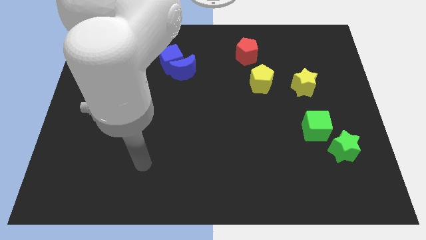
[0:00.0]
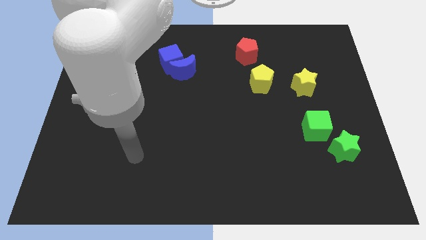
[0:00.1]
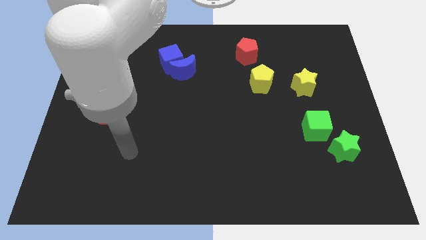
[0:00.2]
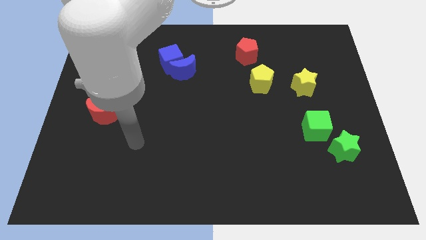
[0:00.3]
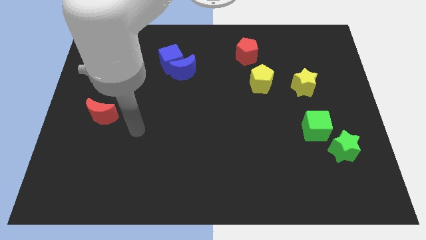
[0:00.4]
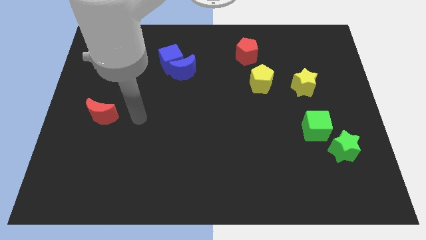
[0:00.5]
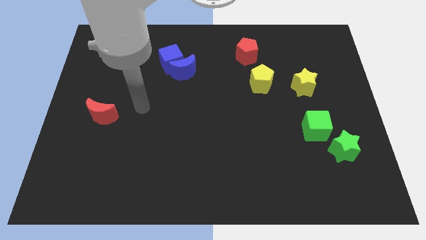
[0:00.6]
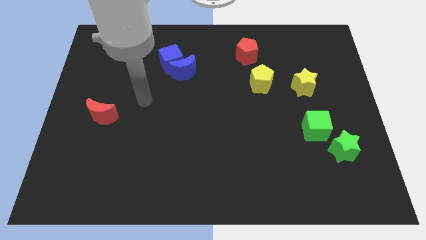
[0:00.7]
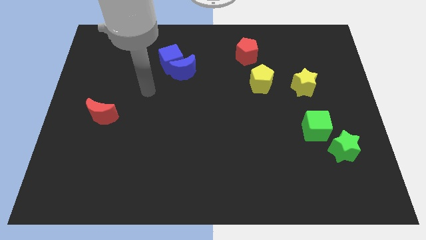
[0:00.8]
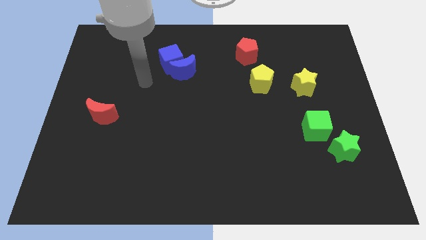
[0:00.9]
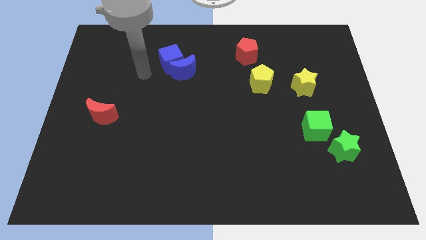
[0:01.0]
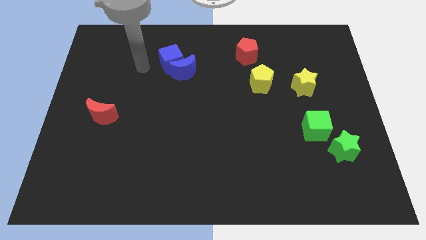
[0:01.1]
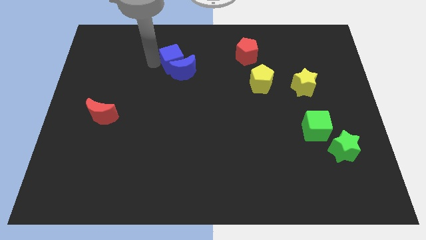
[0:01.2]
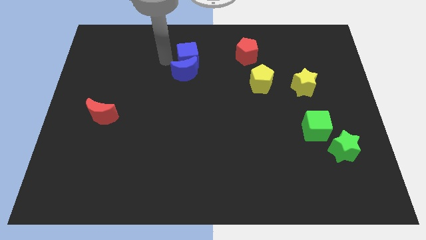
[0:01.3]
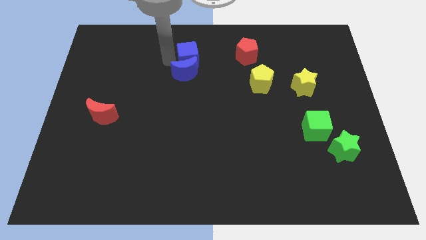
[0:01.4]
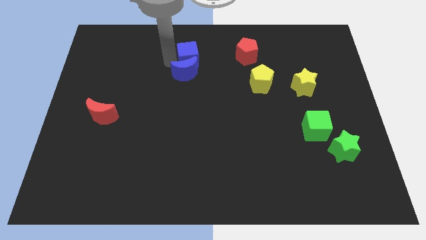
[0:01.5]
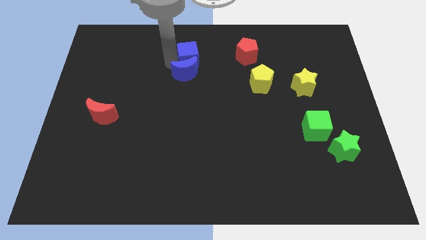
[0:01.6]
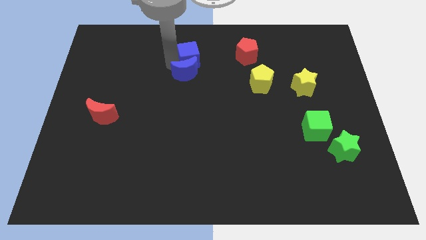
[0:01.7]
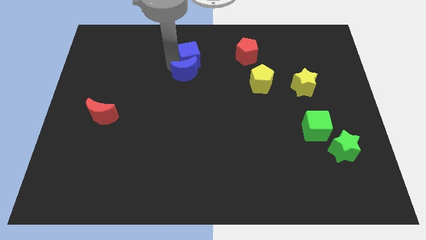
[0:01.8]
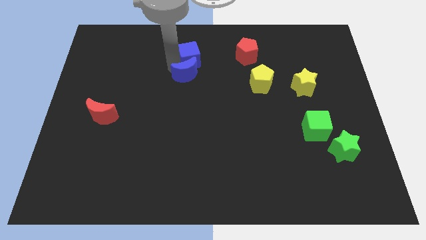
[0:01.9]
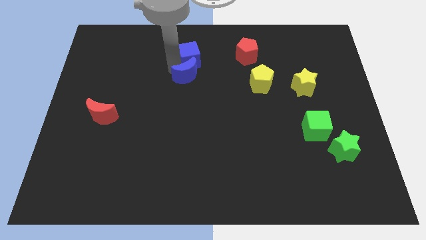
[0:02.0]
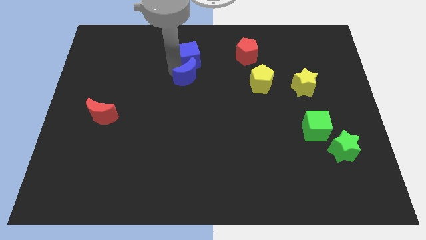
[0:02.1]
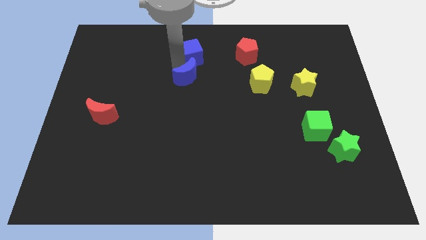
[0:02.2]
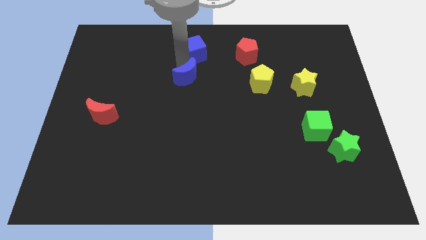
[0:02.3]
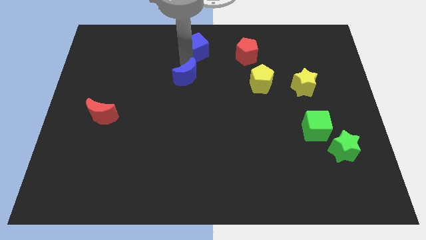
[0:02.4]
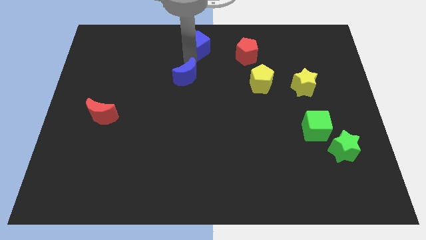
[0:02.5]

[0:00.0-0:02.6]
separate the blue moon from the blue cube

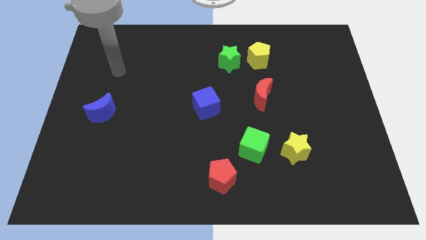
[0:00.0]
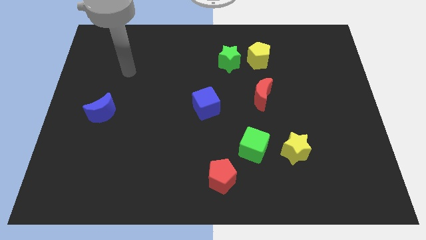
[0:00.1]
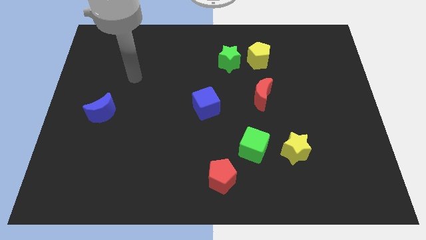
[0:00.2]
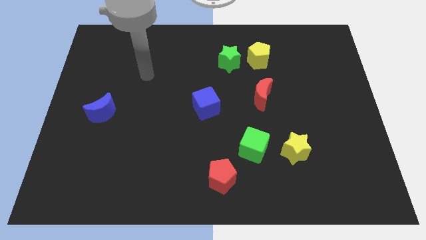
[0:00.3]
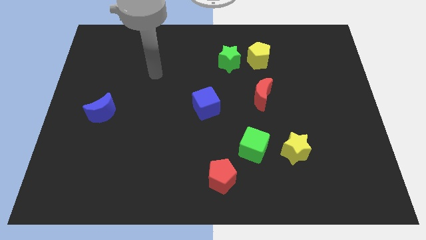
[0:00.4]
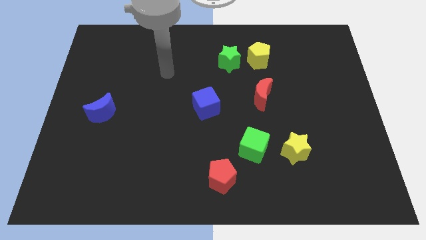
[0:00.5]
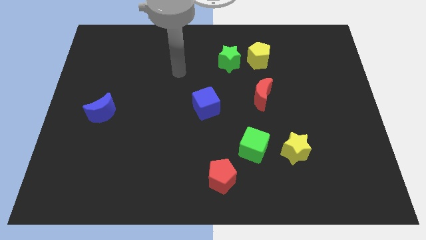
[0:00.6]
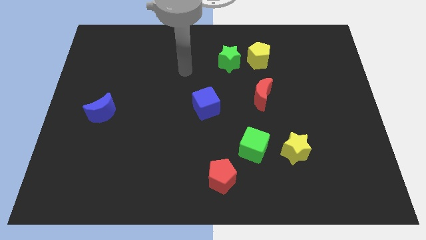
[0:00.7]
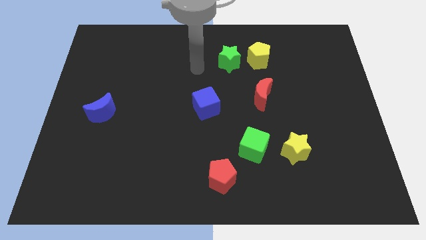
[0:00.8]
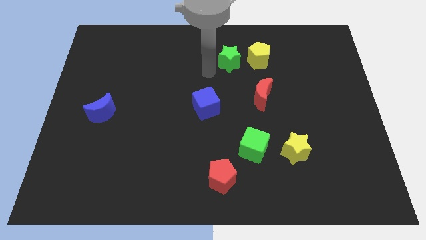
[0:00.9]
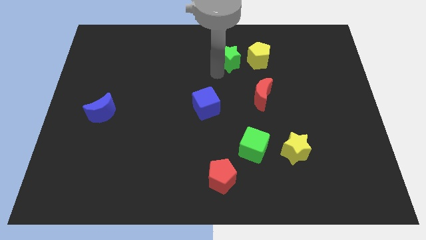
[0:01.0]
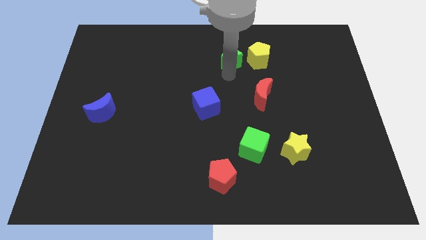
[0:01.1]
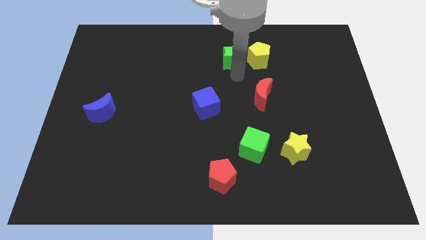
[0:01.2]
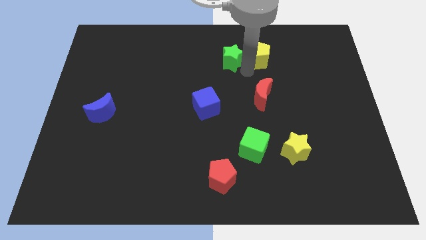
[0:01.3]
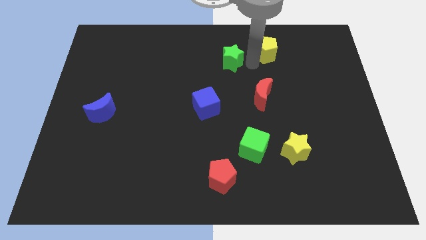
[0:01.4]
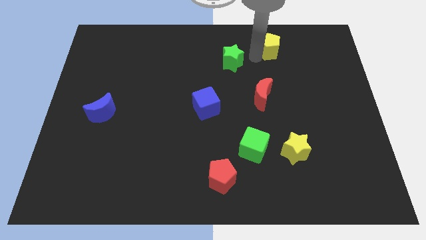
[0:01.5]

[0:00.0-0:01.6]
pull the green star apart from the yellow pentagon

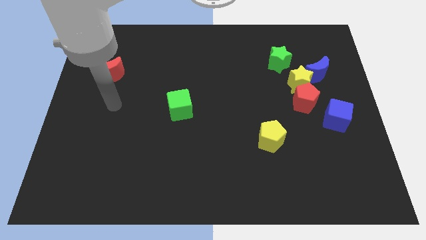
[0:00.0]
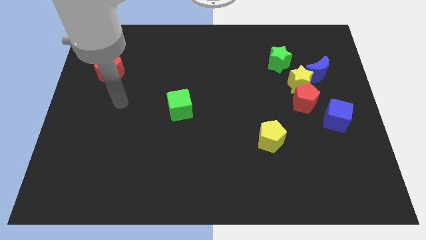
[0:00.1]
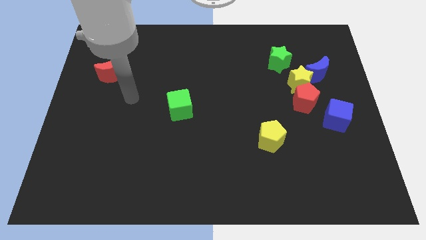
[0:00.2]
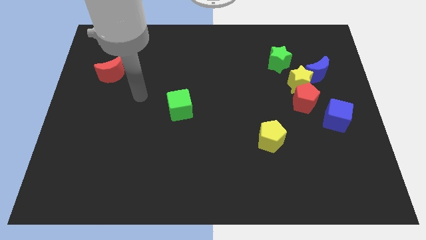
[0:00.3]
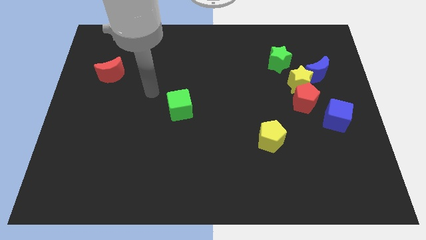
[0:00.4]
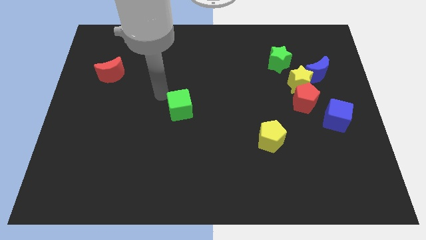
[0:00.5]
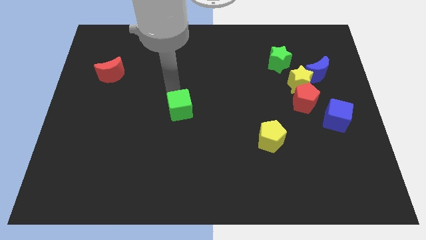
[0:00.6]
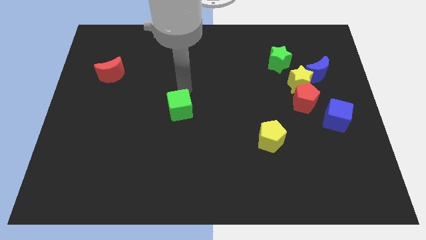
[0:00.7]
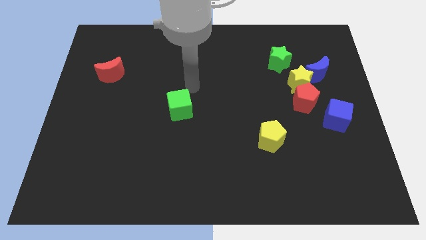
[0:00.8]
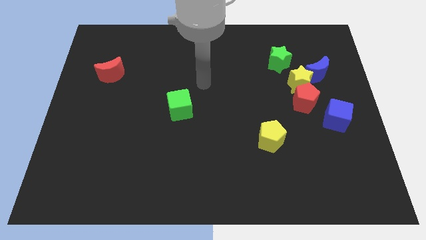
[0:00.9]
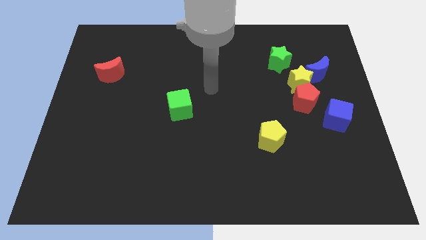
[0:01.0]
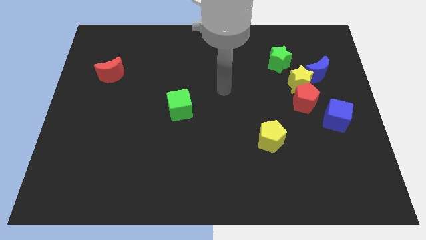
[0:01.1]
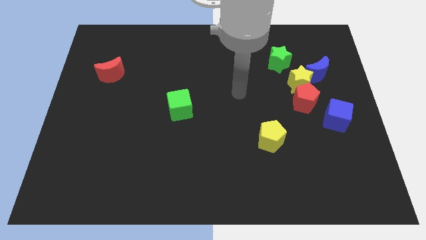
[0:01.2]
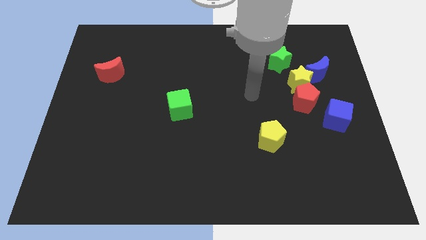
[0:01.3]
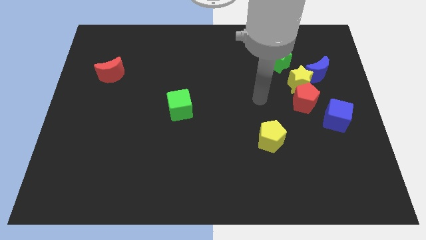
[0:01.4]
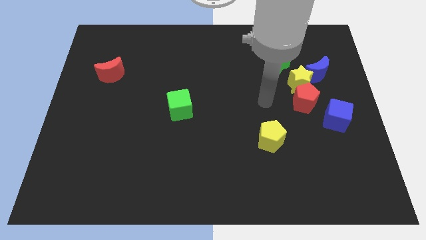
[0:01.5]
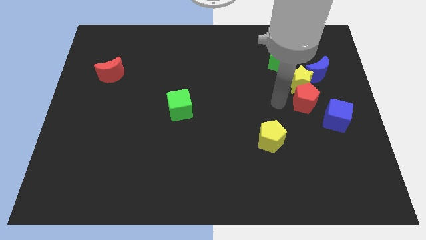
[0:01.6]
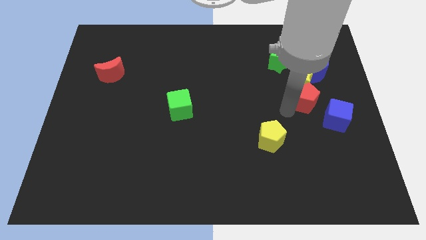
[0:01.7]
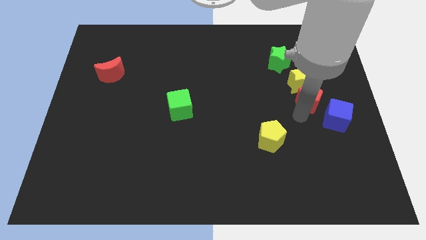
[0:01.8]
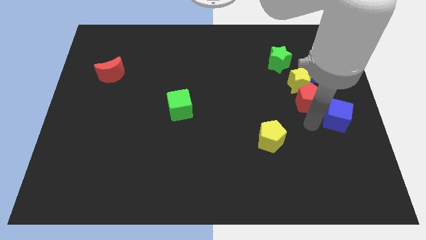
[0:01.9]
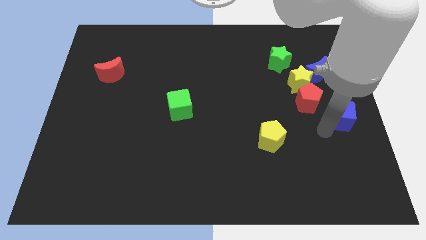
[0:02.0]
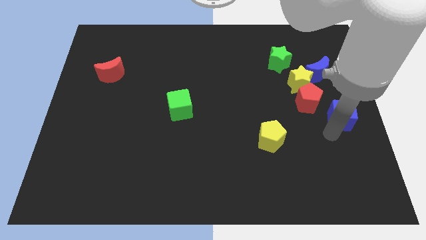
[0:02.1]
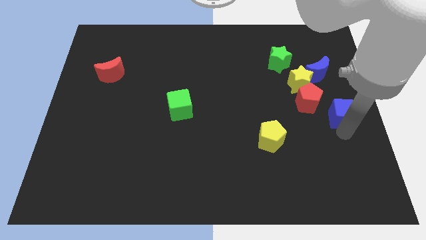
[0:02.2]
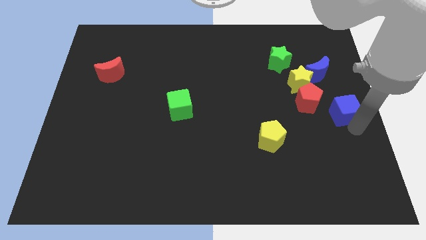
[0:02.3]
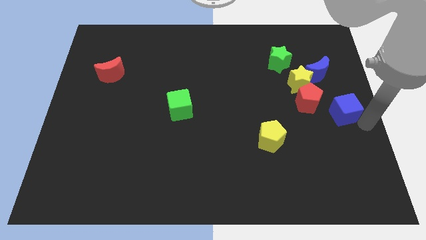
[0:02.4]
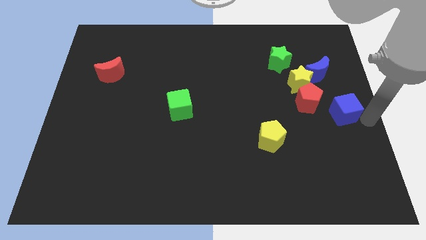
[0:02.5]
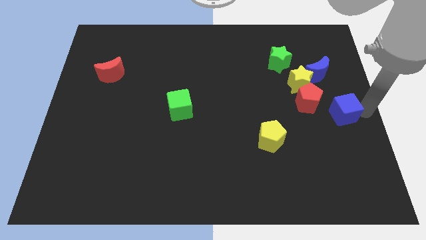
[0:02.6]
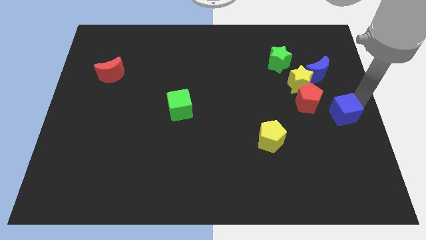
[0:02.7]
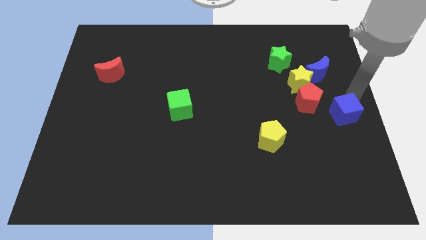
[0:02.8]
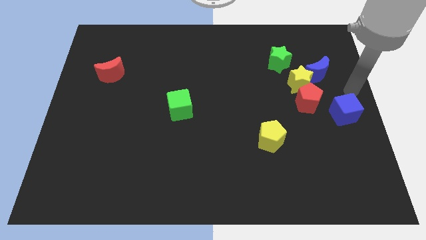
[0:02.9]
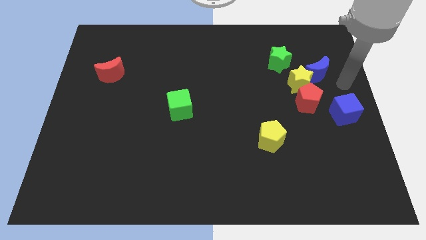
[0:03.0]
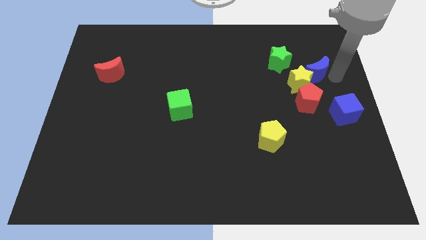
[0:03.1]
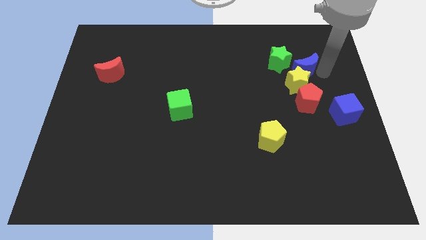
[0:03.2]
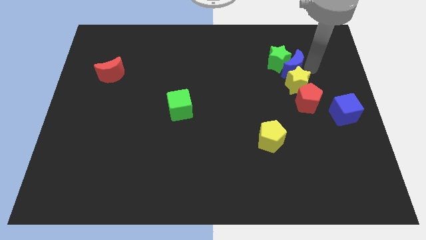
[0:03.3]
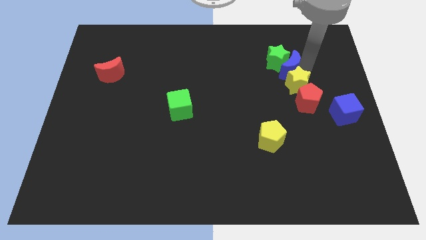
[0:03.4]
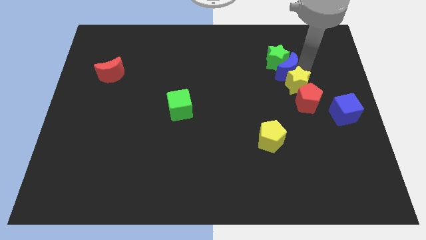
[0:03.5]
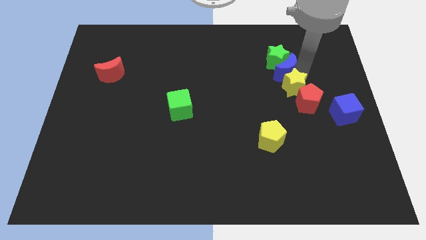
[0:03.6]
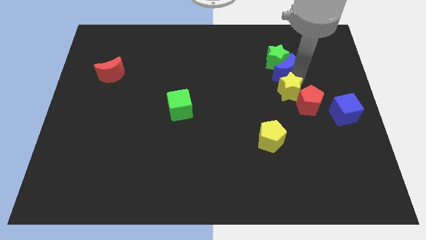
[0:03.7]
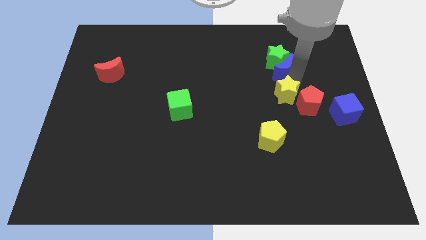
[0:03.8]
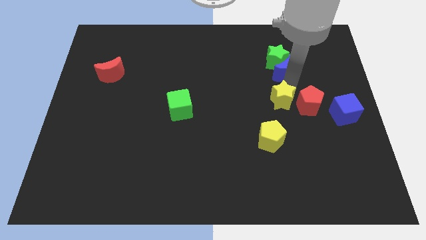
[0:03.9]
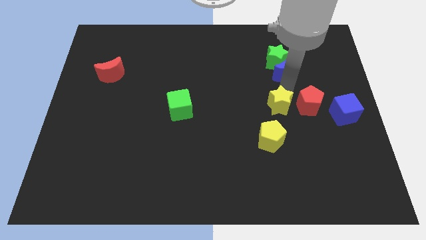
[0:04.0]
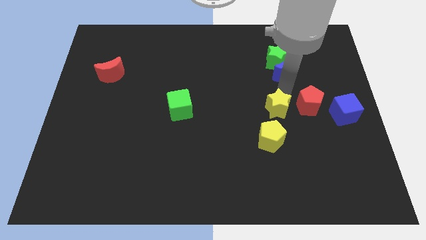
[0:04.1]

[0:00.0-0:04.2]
move the yellow star away from the red pentagon, blue moon, and green star

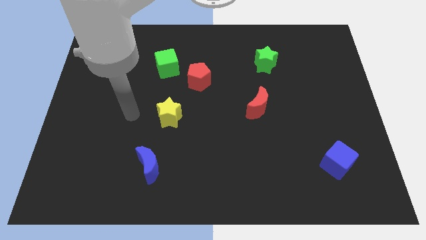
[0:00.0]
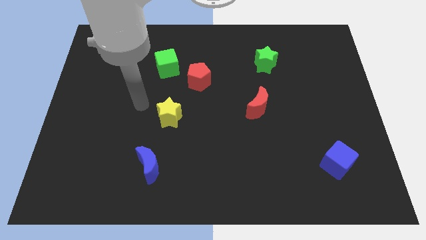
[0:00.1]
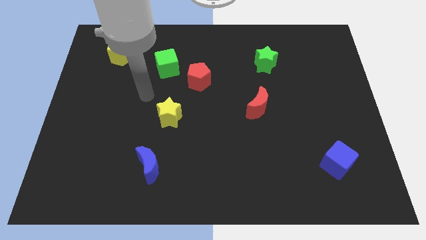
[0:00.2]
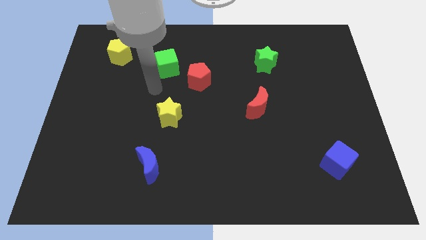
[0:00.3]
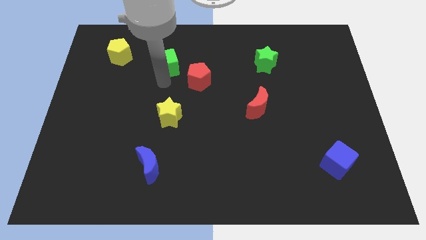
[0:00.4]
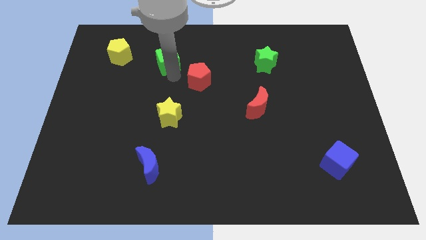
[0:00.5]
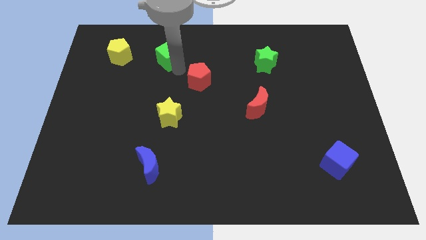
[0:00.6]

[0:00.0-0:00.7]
move the red pentagon away from the green cube

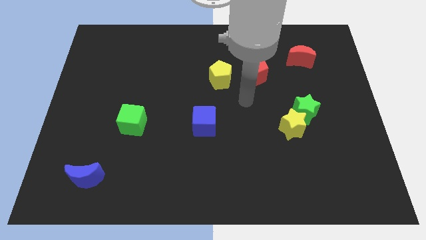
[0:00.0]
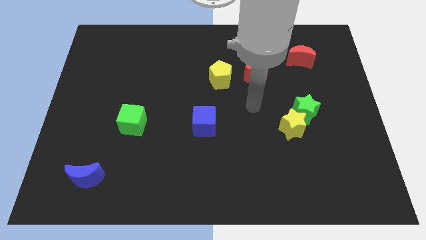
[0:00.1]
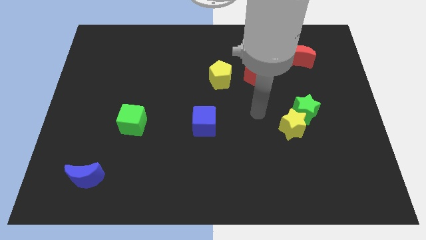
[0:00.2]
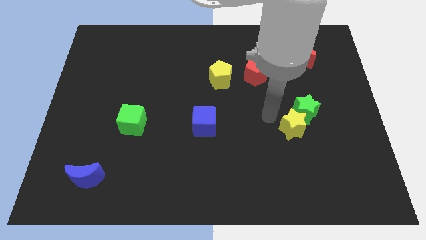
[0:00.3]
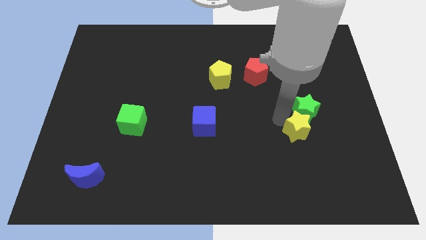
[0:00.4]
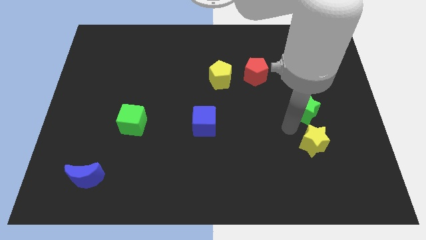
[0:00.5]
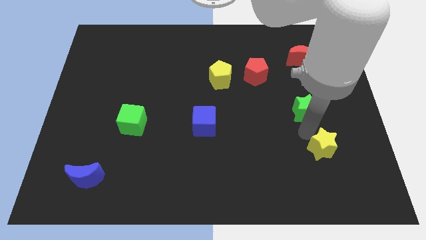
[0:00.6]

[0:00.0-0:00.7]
move the green star away from the yellow star
